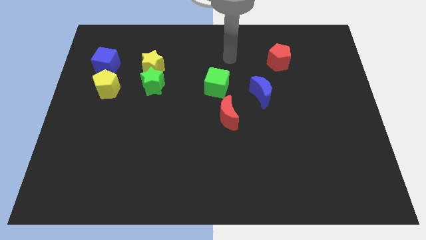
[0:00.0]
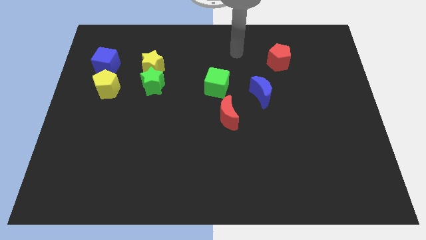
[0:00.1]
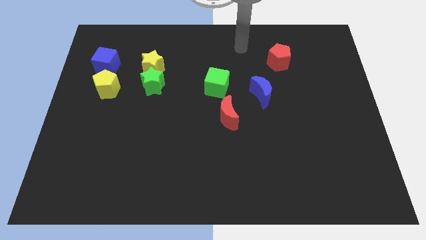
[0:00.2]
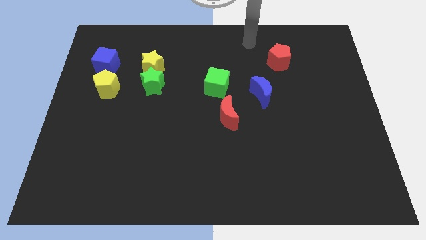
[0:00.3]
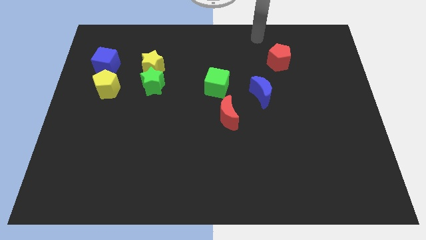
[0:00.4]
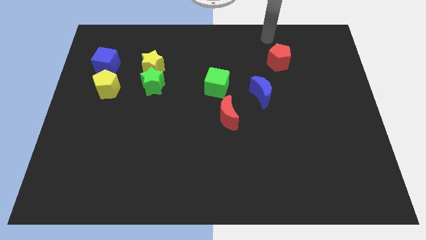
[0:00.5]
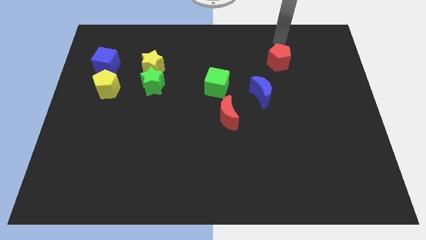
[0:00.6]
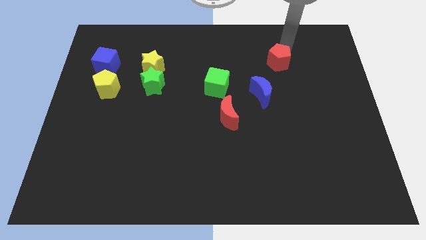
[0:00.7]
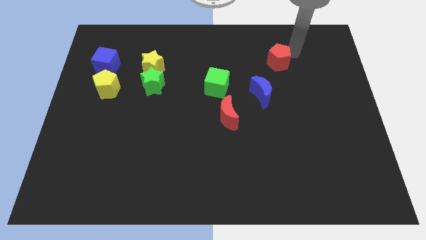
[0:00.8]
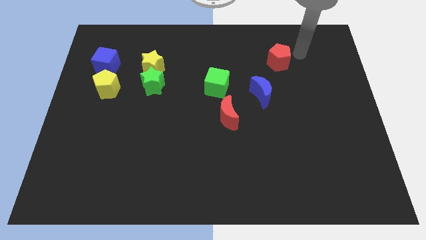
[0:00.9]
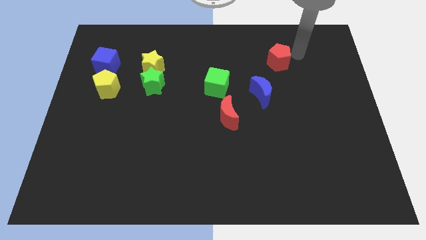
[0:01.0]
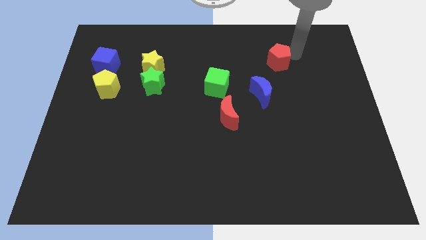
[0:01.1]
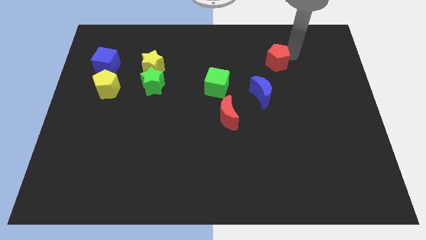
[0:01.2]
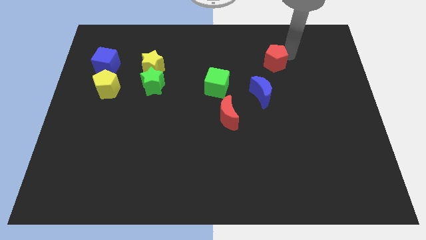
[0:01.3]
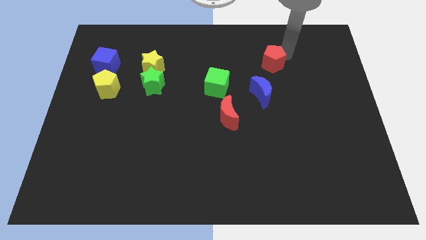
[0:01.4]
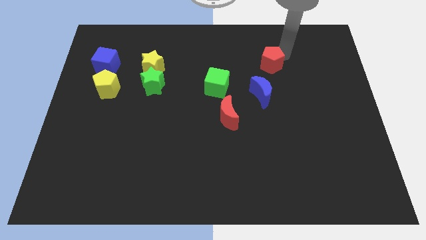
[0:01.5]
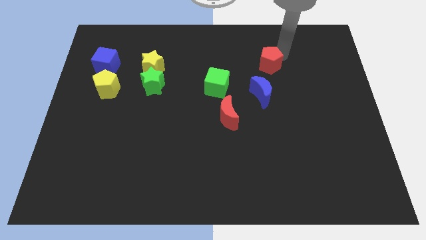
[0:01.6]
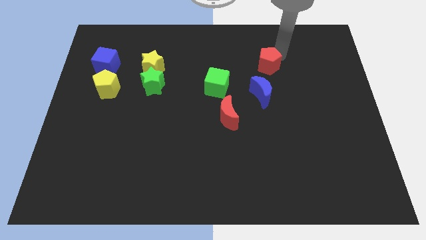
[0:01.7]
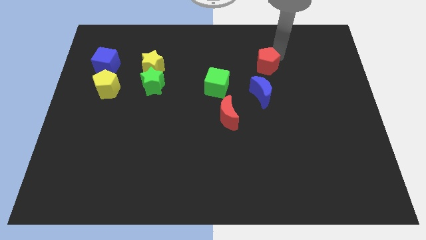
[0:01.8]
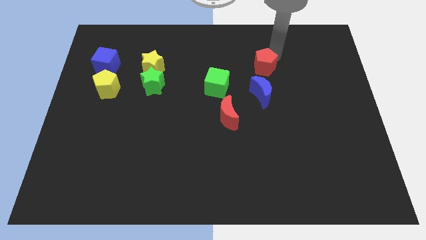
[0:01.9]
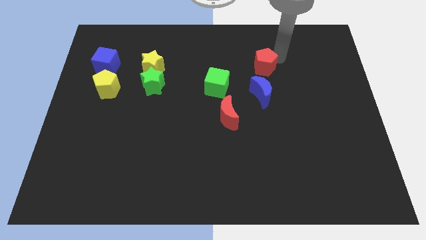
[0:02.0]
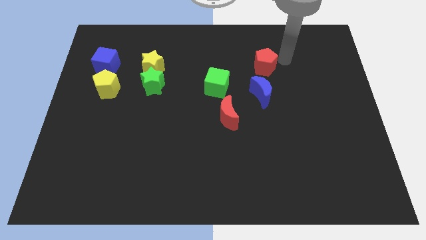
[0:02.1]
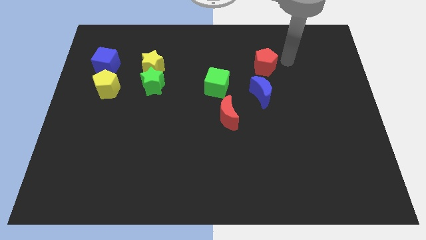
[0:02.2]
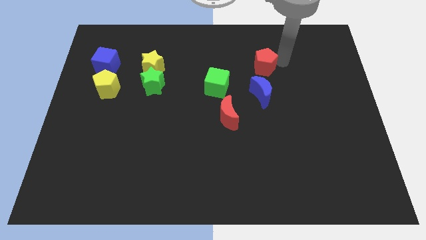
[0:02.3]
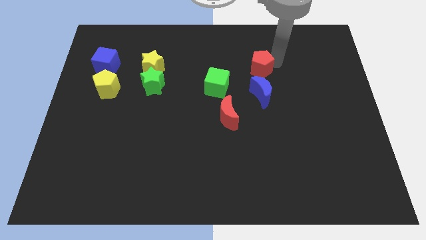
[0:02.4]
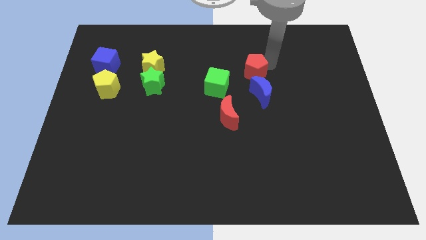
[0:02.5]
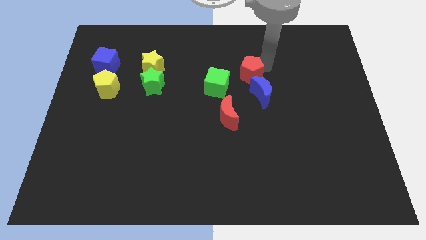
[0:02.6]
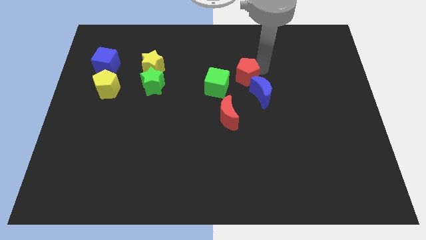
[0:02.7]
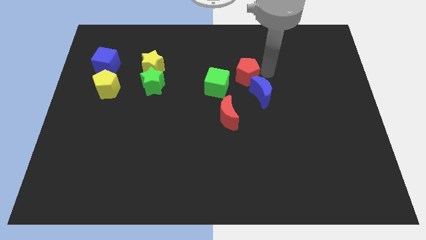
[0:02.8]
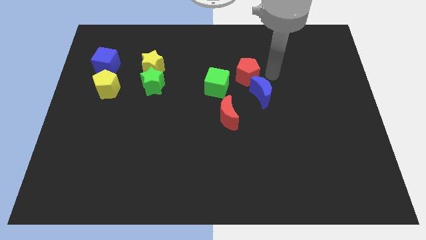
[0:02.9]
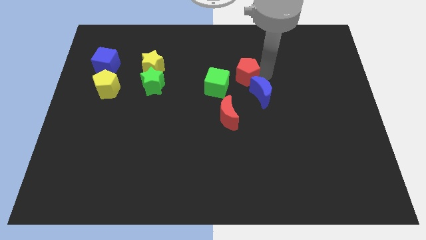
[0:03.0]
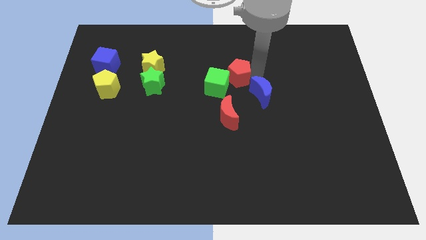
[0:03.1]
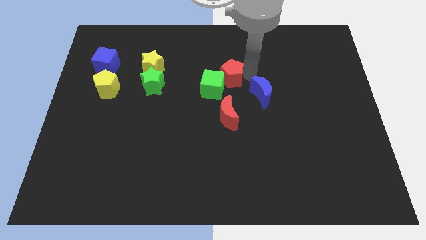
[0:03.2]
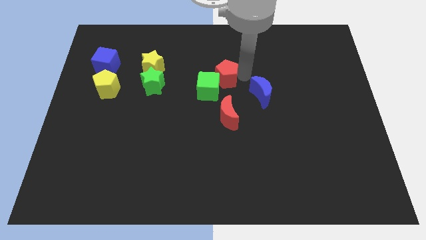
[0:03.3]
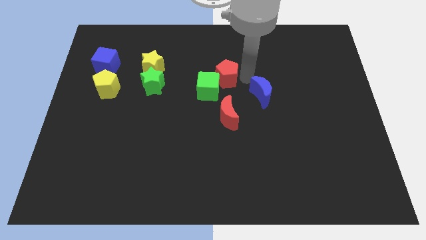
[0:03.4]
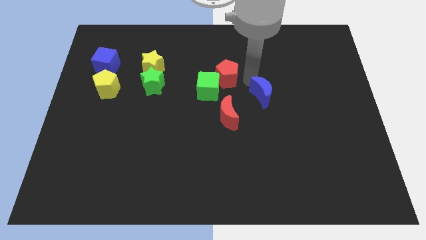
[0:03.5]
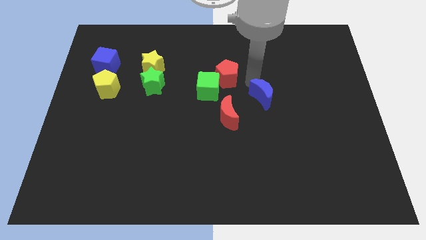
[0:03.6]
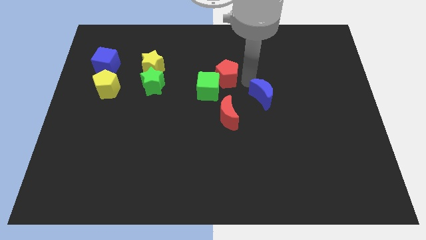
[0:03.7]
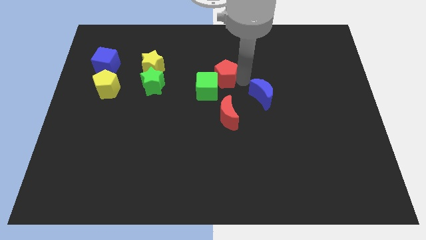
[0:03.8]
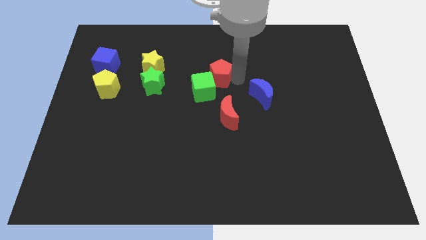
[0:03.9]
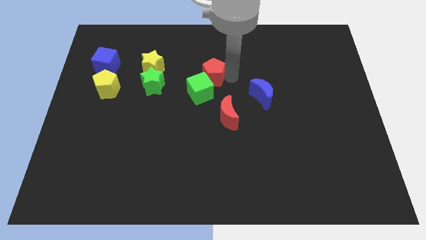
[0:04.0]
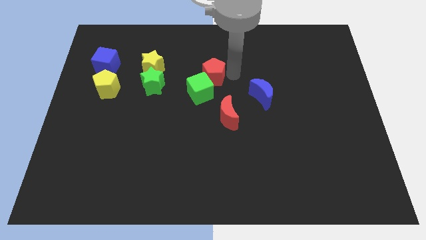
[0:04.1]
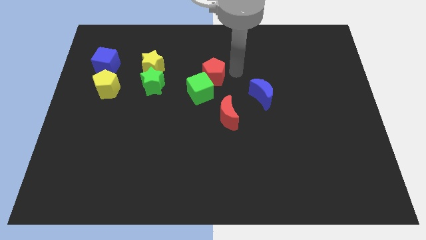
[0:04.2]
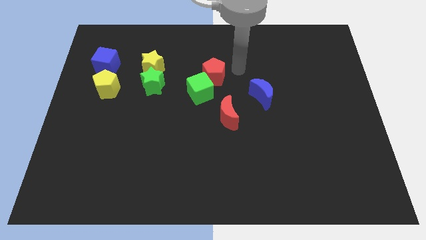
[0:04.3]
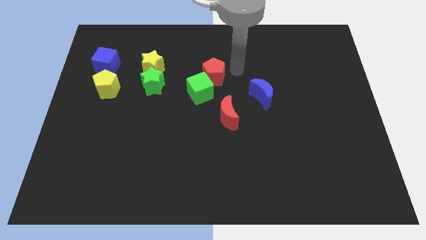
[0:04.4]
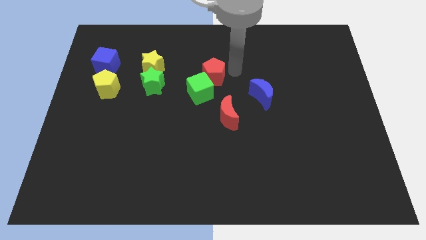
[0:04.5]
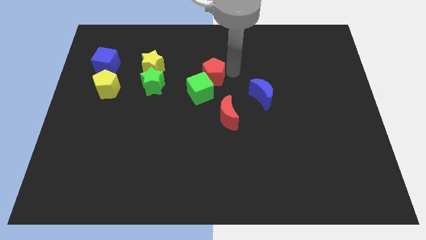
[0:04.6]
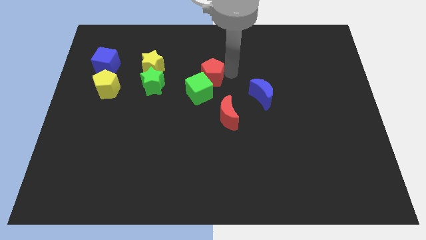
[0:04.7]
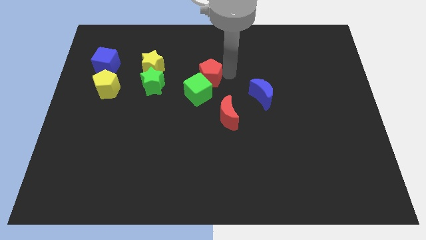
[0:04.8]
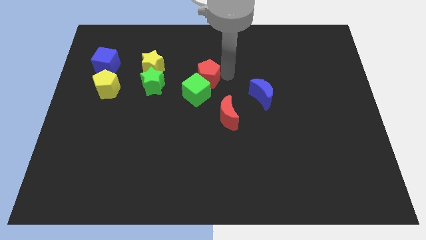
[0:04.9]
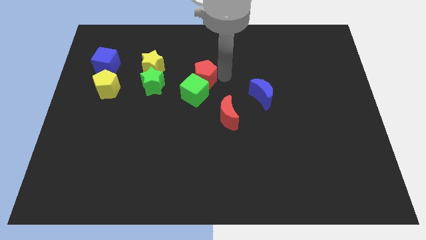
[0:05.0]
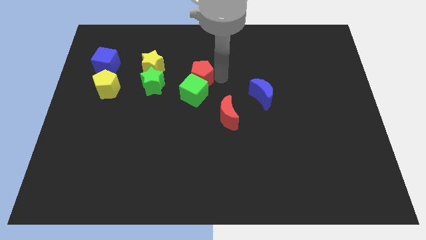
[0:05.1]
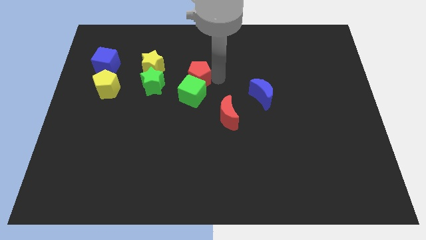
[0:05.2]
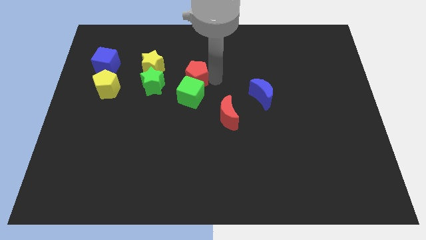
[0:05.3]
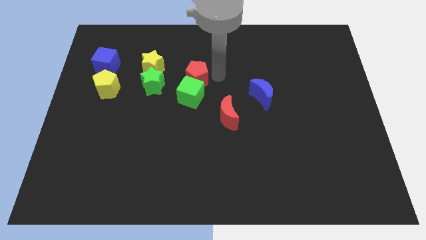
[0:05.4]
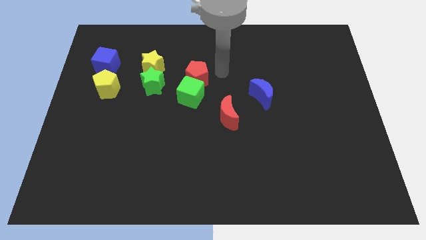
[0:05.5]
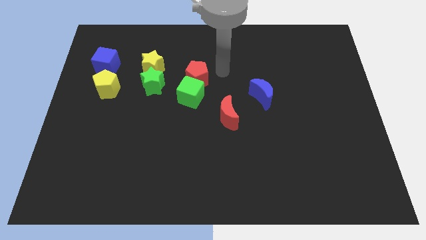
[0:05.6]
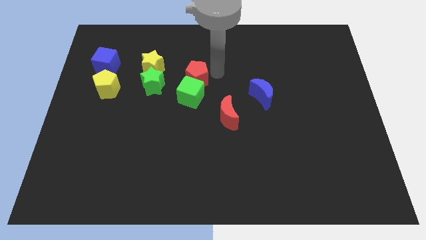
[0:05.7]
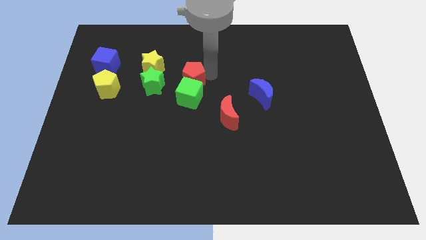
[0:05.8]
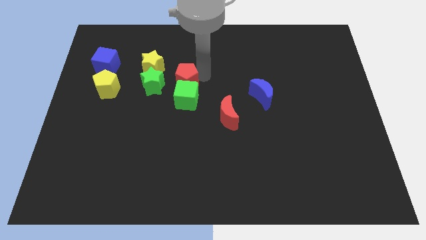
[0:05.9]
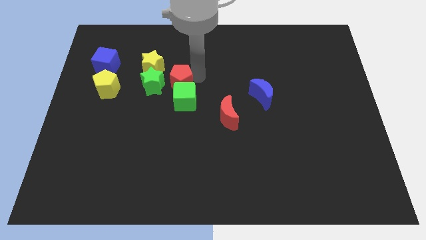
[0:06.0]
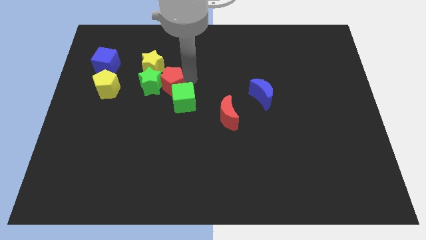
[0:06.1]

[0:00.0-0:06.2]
put the red pentagon to the right of the yellow pentagon

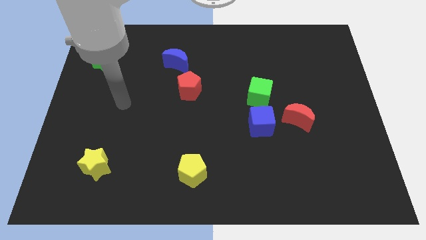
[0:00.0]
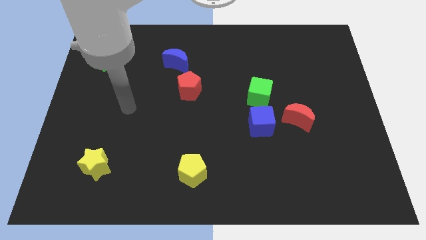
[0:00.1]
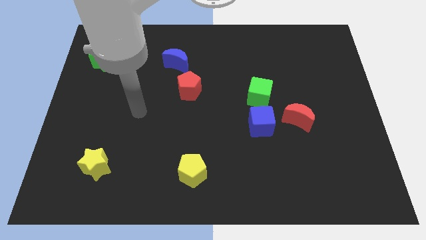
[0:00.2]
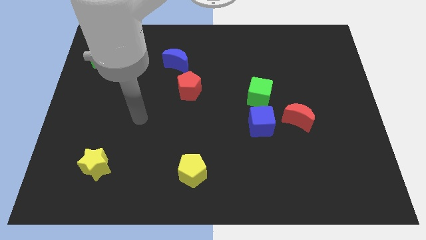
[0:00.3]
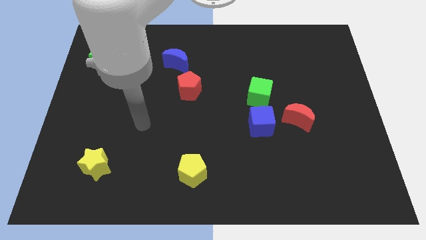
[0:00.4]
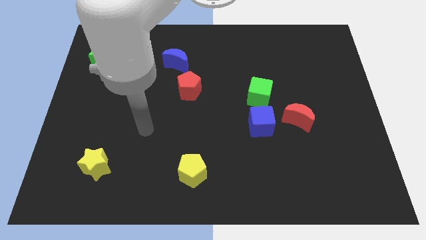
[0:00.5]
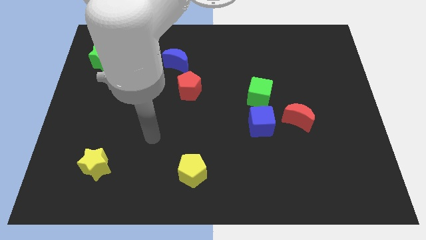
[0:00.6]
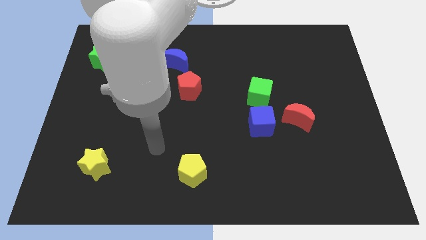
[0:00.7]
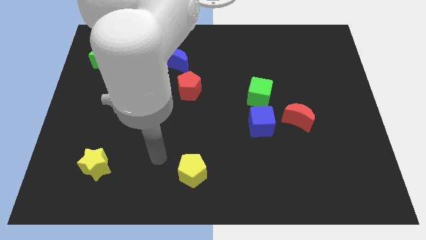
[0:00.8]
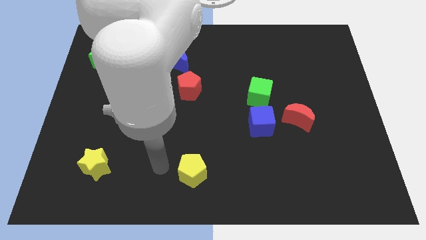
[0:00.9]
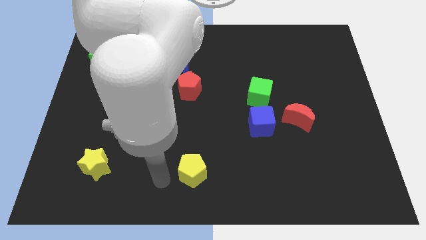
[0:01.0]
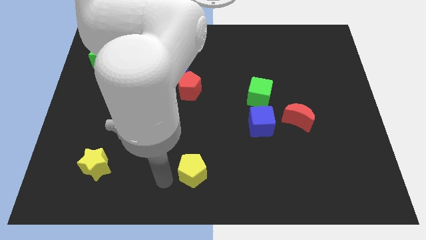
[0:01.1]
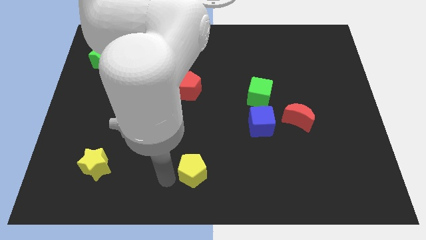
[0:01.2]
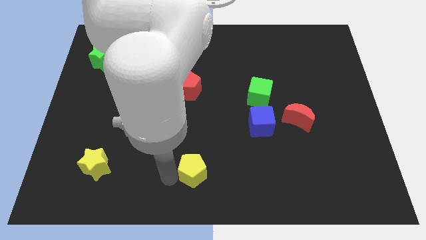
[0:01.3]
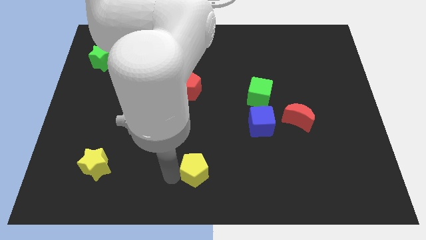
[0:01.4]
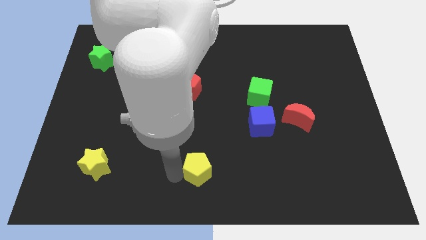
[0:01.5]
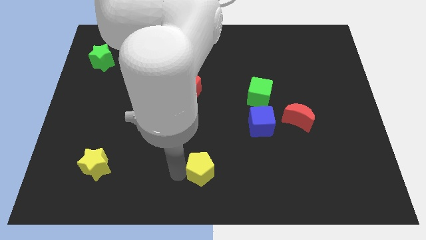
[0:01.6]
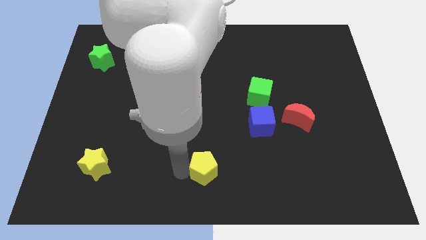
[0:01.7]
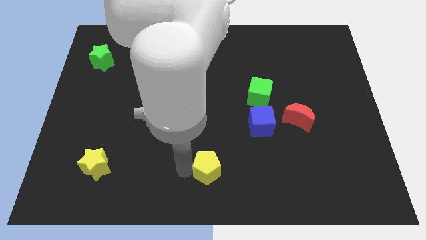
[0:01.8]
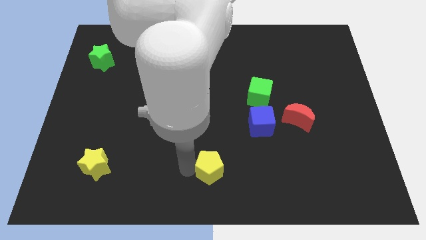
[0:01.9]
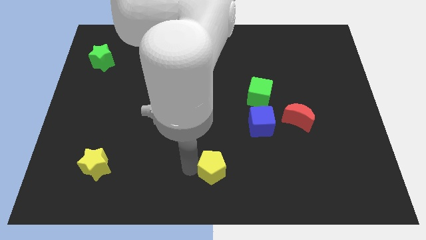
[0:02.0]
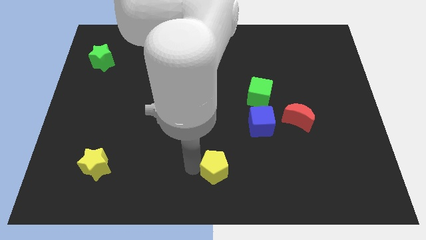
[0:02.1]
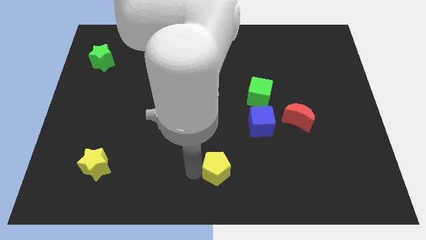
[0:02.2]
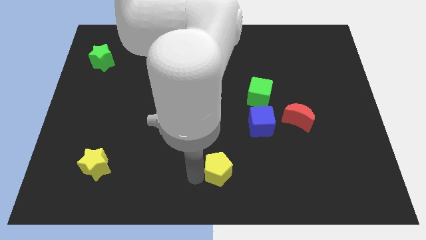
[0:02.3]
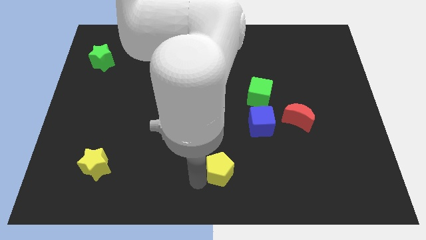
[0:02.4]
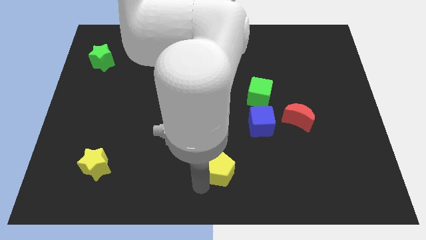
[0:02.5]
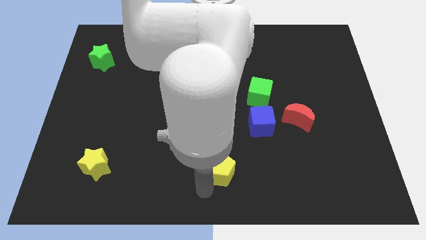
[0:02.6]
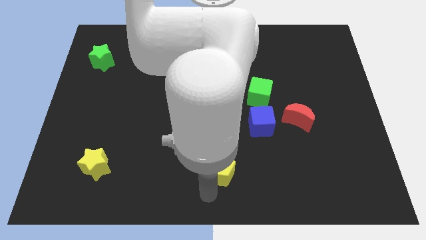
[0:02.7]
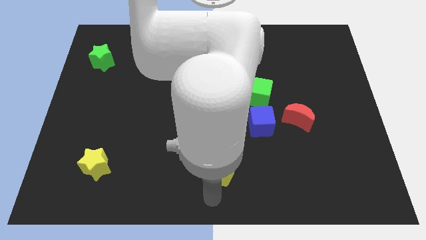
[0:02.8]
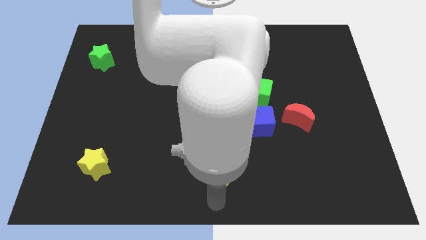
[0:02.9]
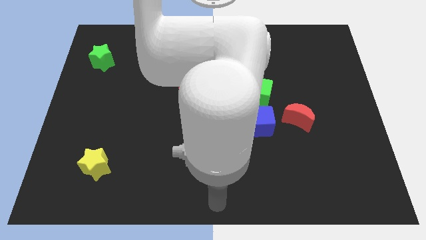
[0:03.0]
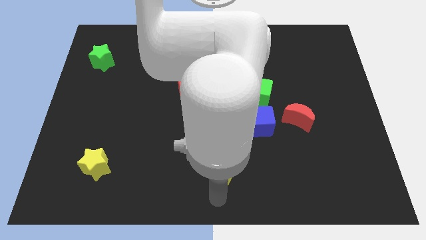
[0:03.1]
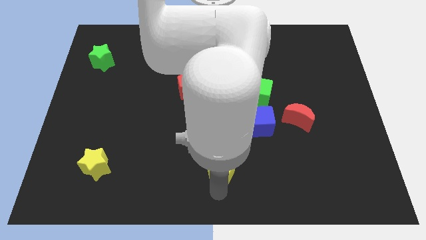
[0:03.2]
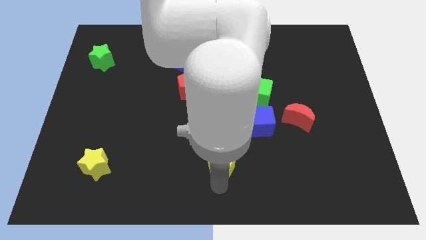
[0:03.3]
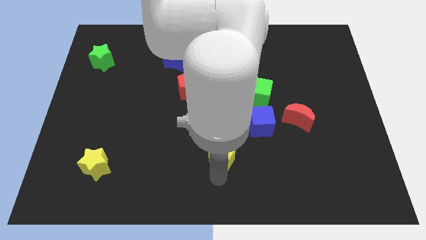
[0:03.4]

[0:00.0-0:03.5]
push the yellow pentagon diagonally down and to the left of the blue cube
